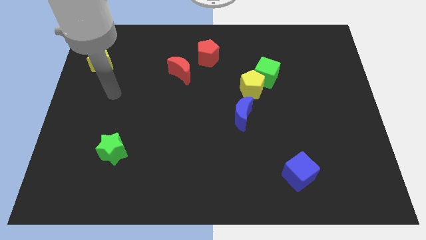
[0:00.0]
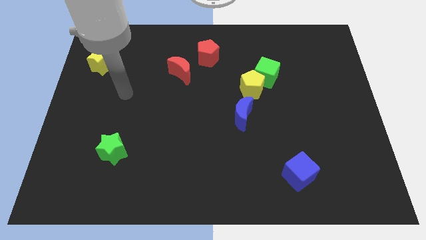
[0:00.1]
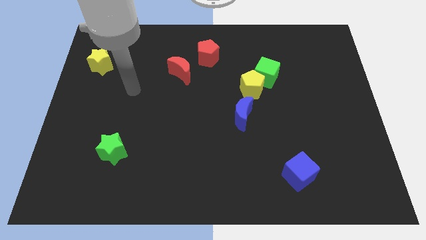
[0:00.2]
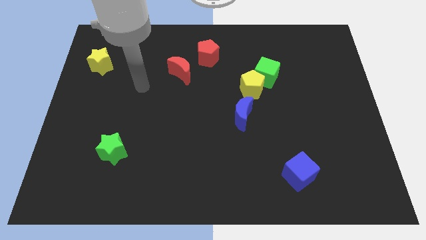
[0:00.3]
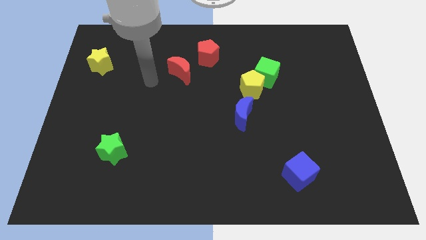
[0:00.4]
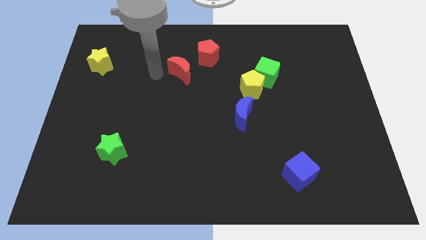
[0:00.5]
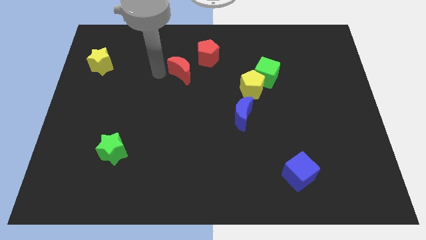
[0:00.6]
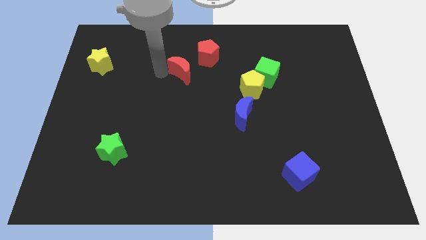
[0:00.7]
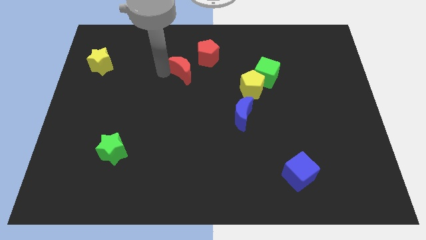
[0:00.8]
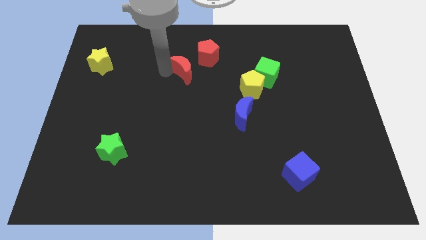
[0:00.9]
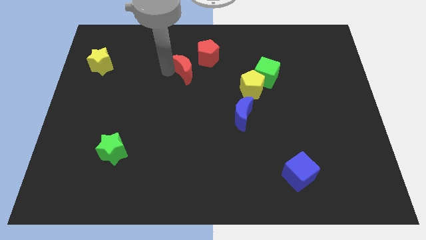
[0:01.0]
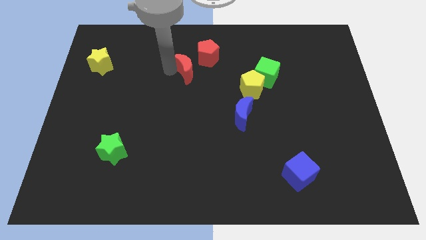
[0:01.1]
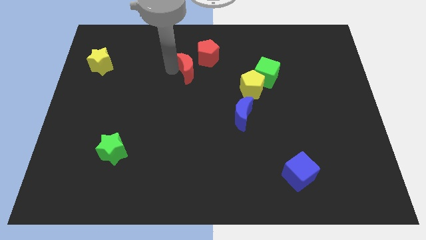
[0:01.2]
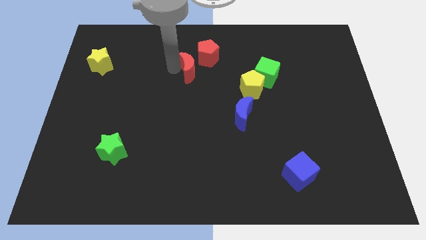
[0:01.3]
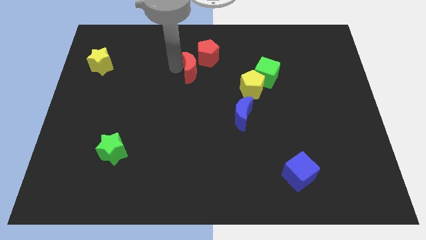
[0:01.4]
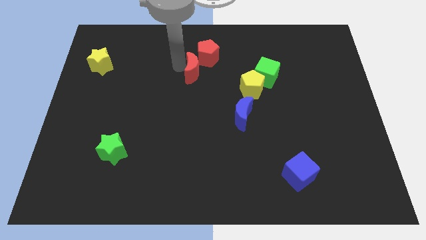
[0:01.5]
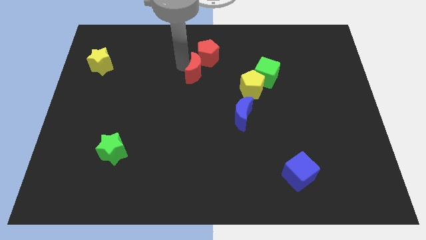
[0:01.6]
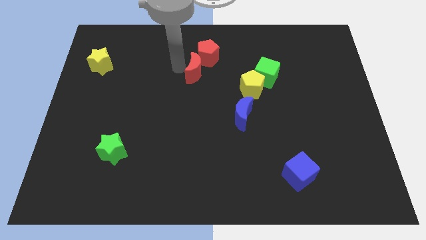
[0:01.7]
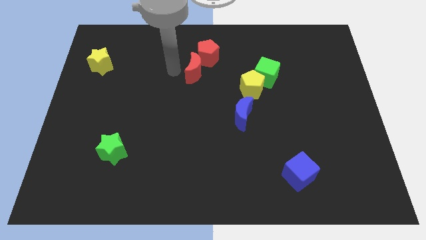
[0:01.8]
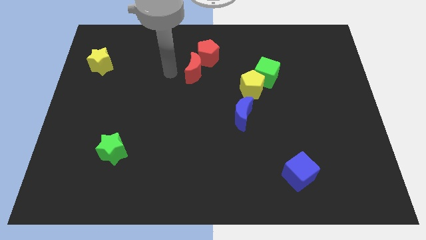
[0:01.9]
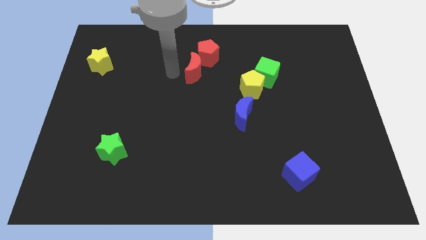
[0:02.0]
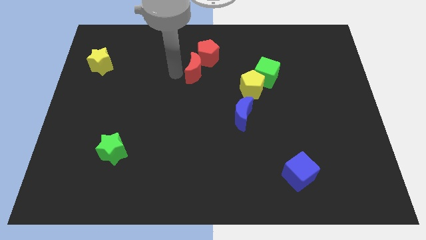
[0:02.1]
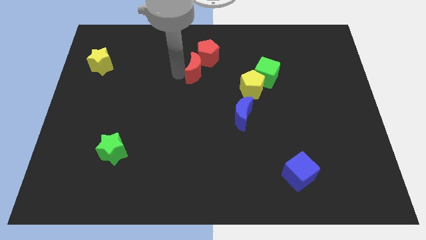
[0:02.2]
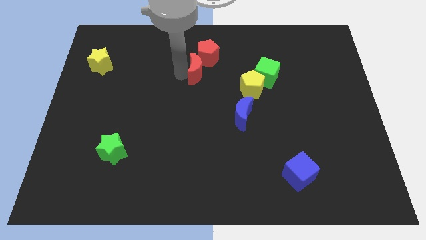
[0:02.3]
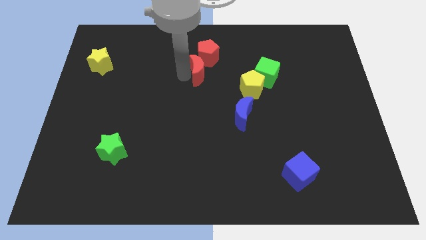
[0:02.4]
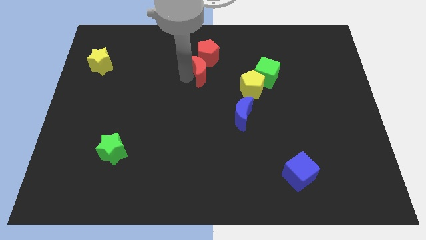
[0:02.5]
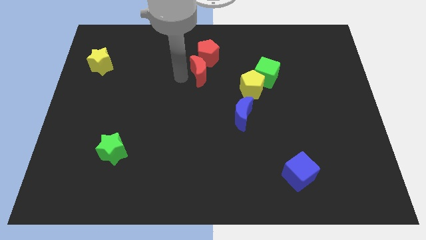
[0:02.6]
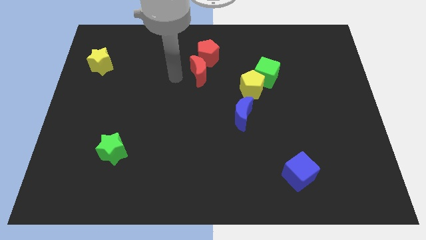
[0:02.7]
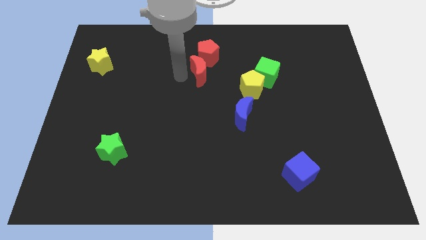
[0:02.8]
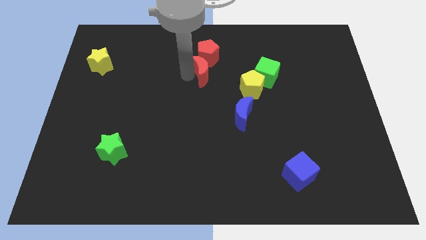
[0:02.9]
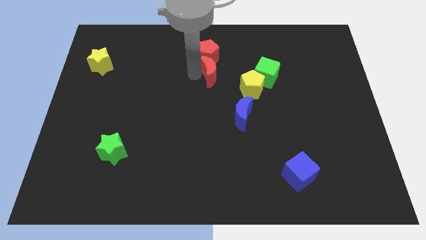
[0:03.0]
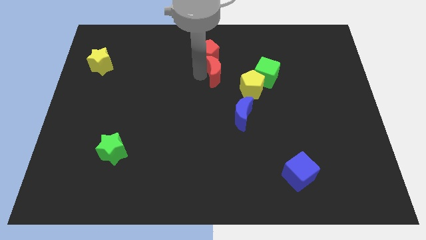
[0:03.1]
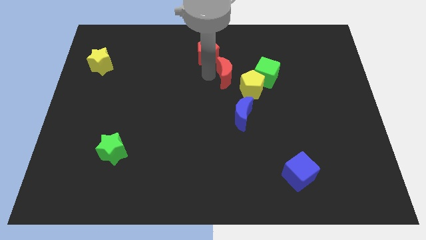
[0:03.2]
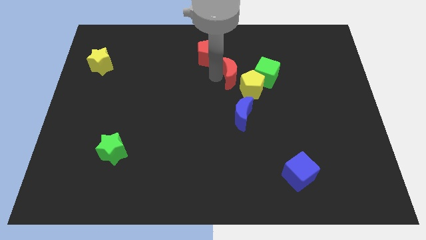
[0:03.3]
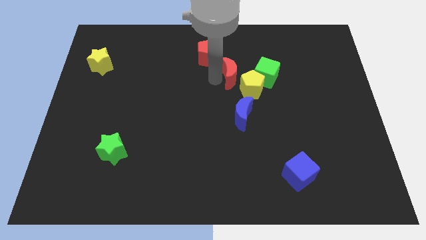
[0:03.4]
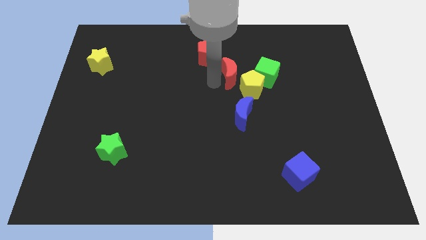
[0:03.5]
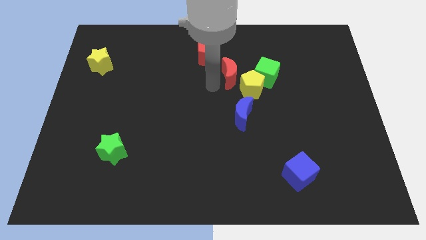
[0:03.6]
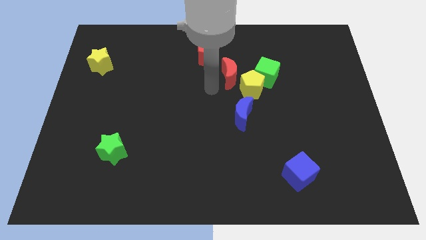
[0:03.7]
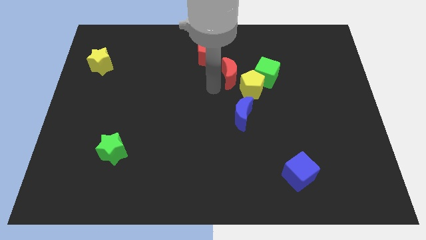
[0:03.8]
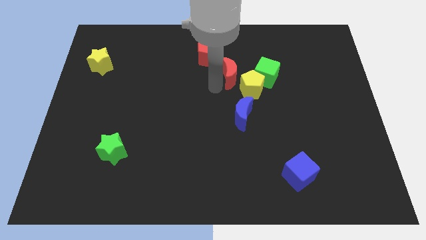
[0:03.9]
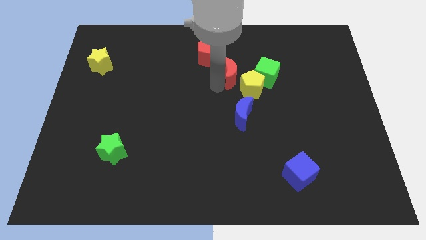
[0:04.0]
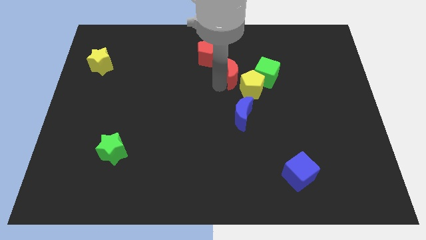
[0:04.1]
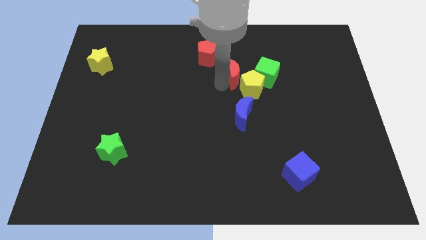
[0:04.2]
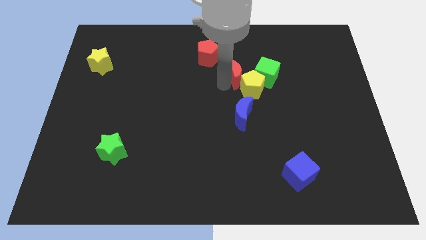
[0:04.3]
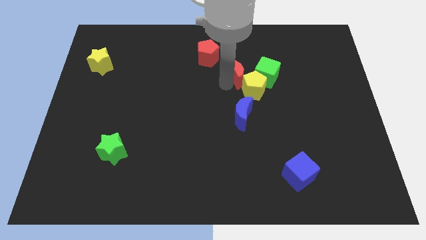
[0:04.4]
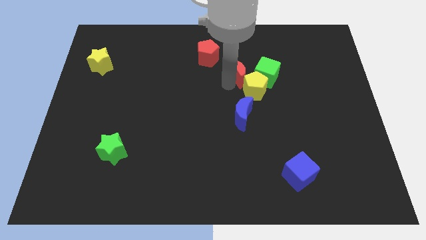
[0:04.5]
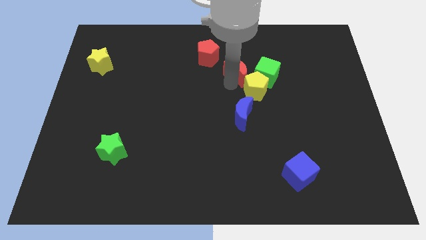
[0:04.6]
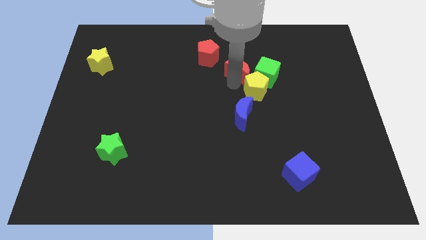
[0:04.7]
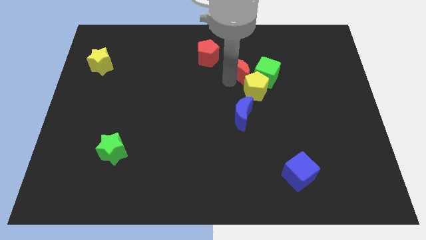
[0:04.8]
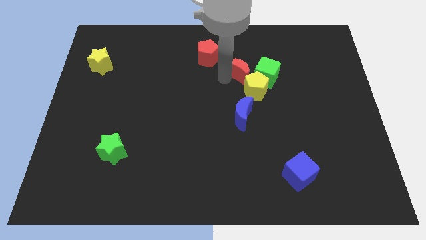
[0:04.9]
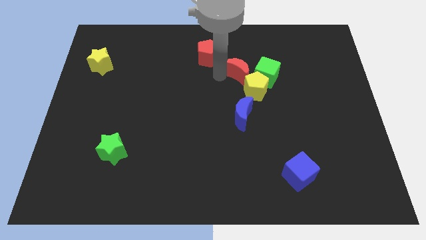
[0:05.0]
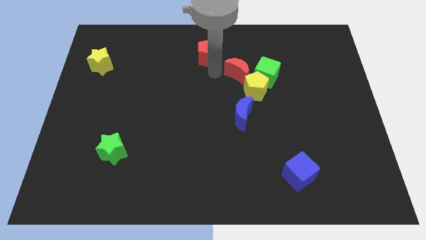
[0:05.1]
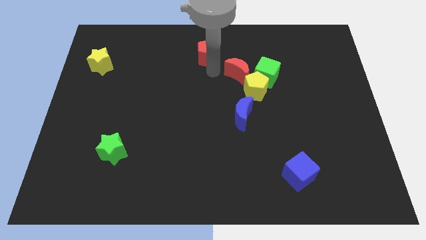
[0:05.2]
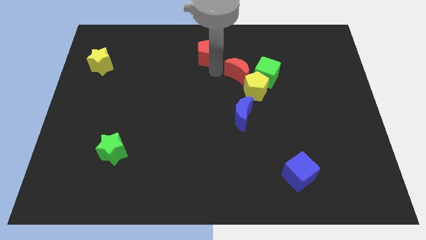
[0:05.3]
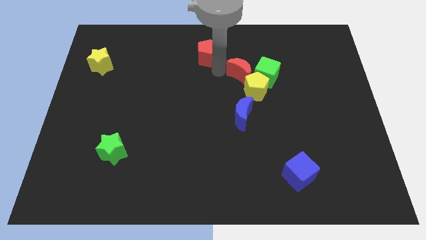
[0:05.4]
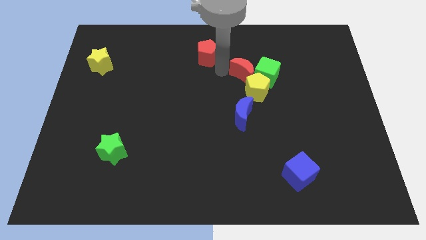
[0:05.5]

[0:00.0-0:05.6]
put the red moon close to the green cube
